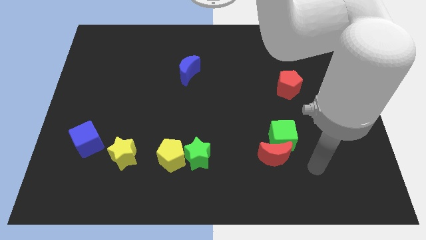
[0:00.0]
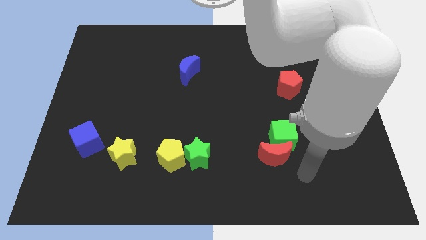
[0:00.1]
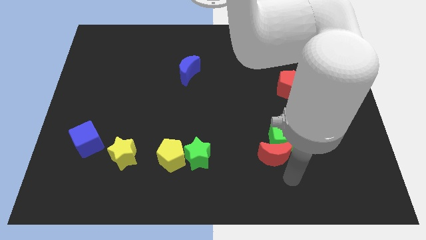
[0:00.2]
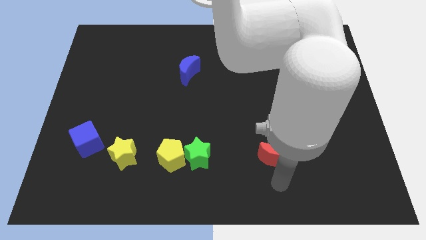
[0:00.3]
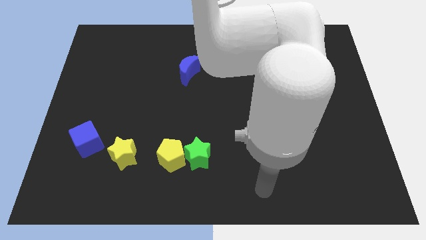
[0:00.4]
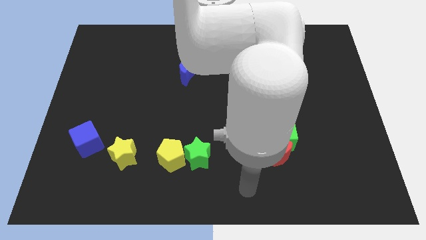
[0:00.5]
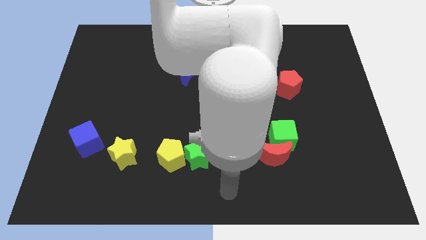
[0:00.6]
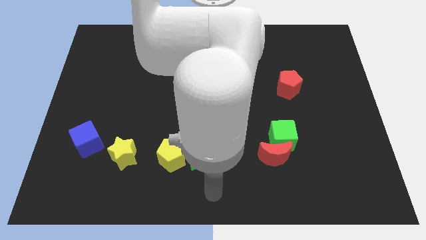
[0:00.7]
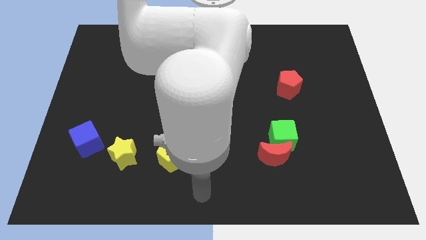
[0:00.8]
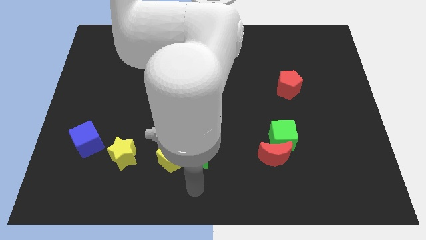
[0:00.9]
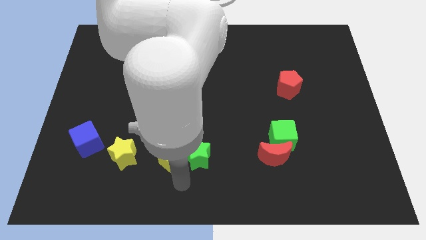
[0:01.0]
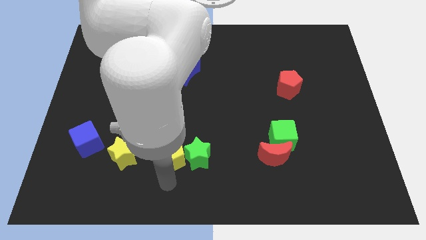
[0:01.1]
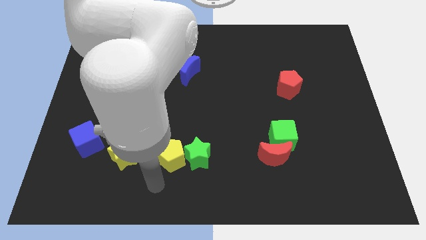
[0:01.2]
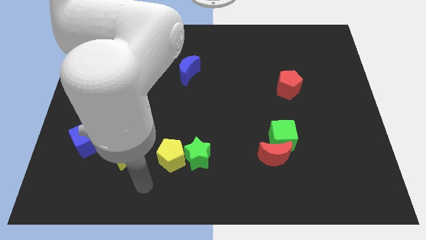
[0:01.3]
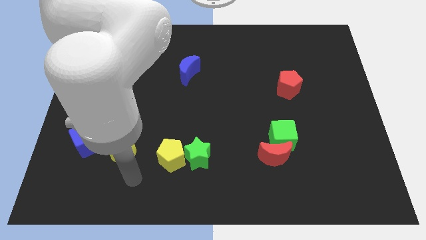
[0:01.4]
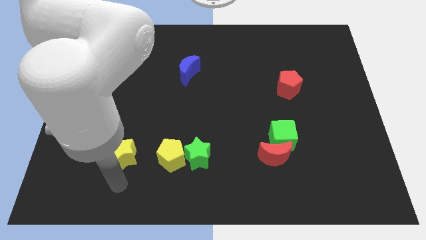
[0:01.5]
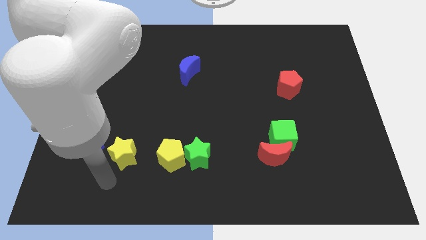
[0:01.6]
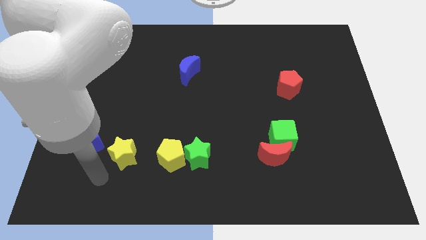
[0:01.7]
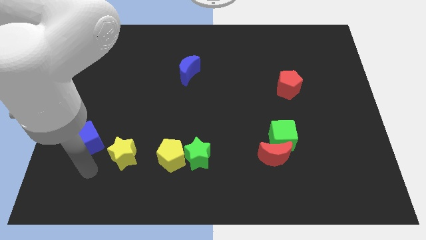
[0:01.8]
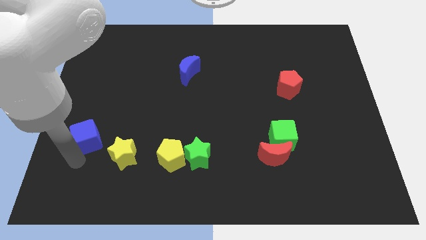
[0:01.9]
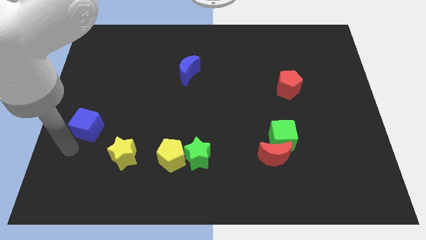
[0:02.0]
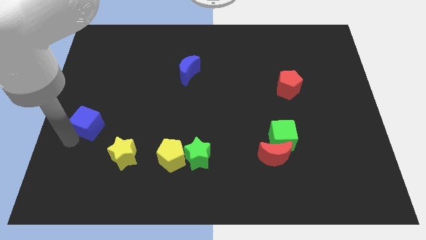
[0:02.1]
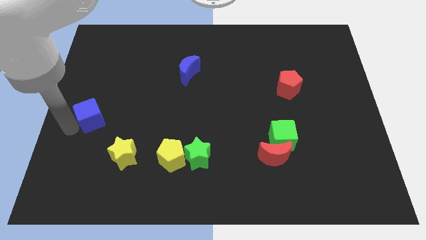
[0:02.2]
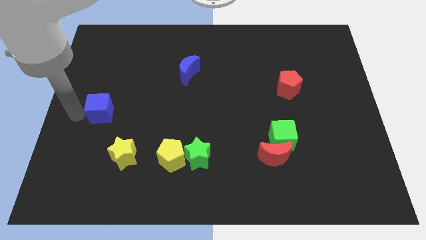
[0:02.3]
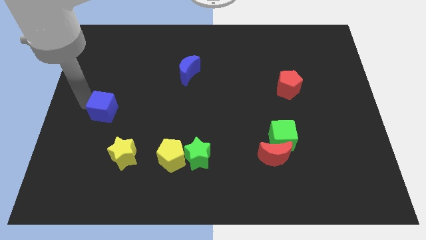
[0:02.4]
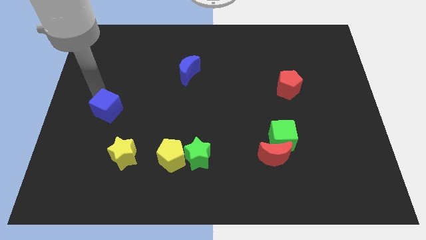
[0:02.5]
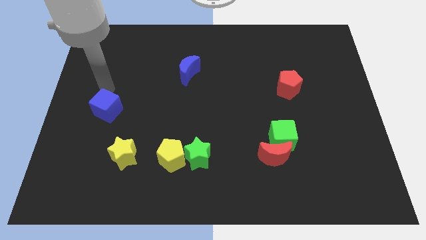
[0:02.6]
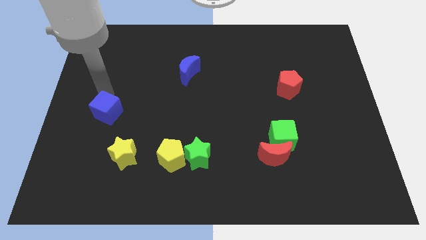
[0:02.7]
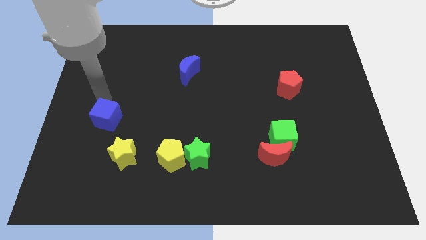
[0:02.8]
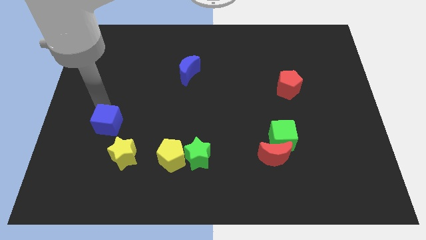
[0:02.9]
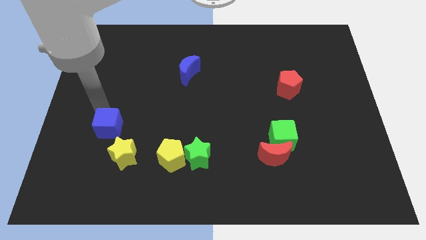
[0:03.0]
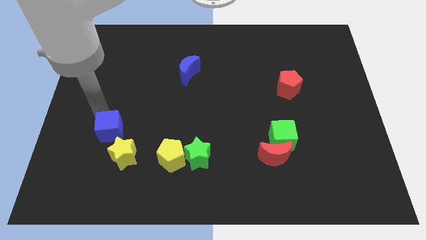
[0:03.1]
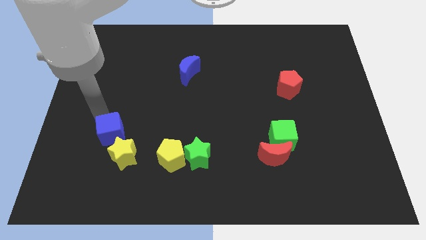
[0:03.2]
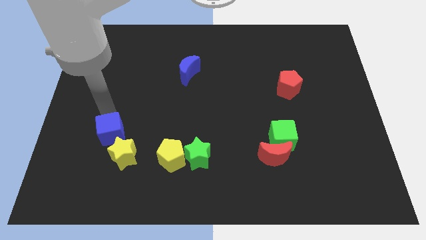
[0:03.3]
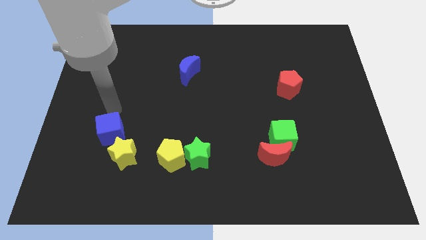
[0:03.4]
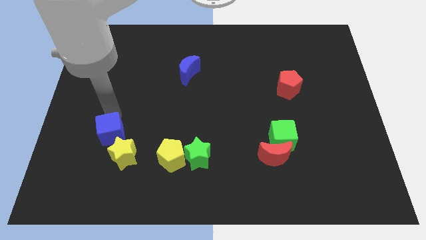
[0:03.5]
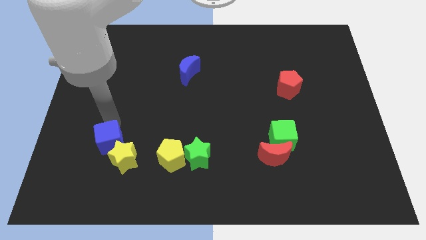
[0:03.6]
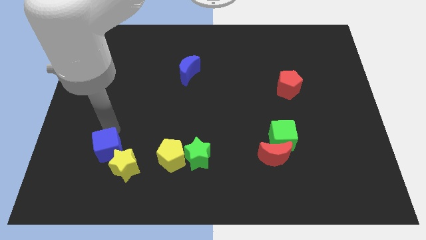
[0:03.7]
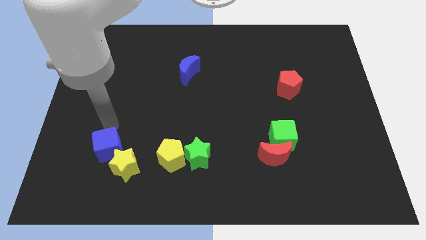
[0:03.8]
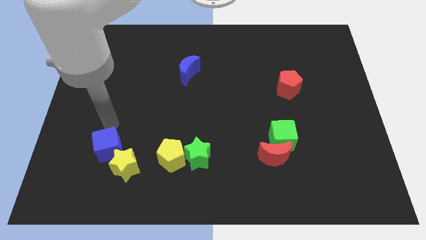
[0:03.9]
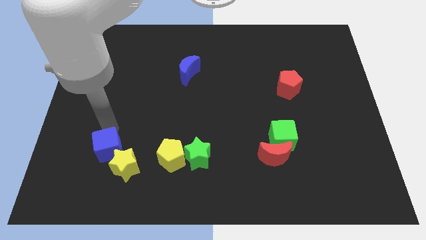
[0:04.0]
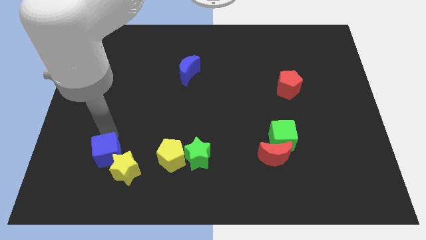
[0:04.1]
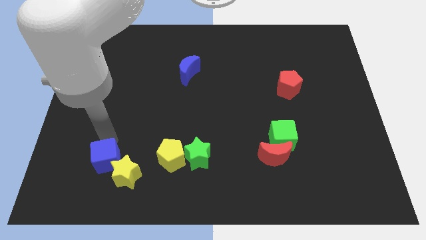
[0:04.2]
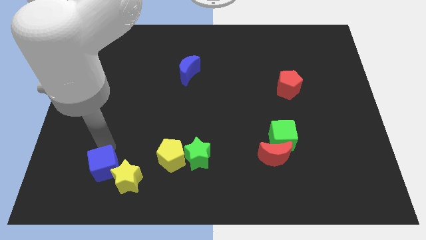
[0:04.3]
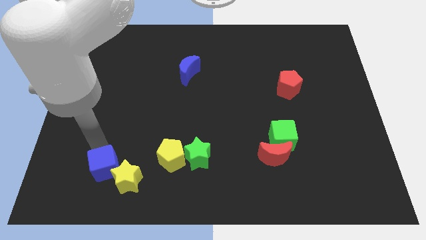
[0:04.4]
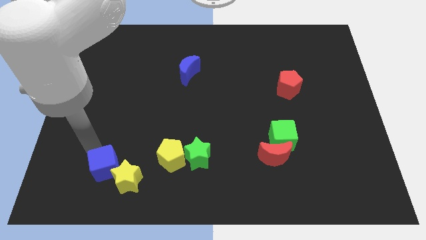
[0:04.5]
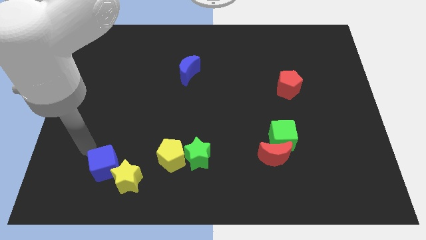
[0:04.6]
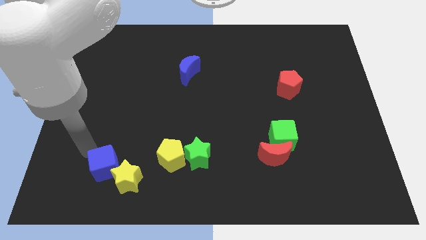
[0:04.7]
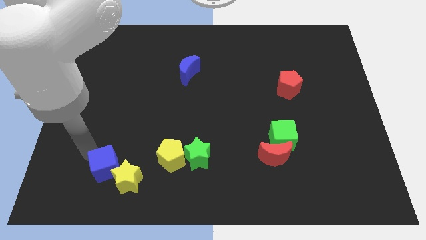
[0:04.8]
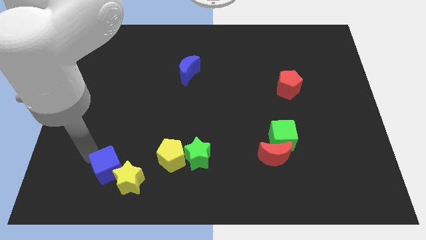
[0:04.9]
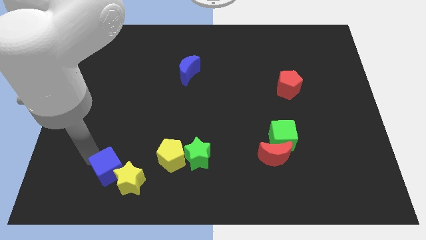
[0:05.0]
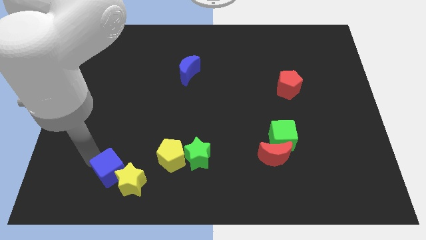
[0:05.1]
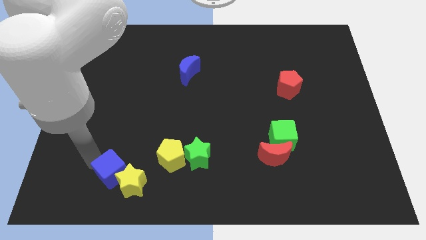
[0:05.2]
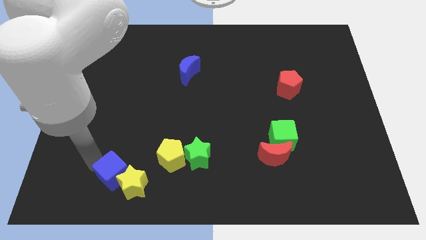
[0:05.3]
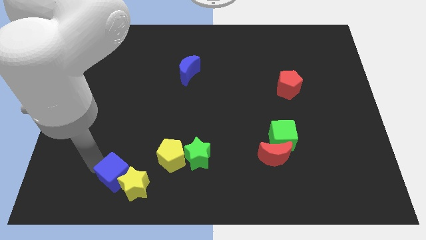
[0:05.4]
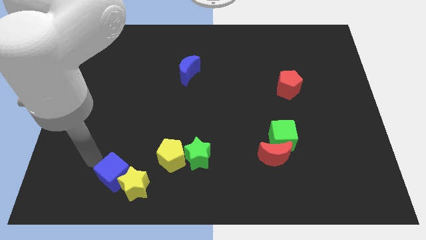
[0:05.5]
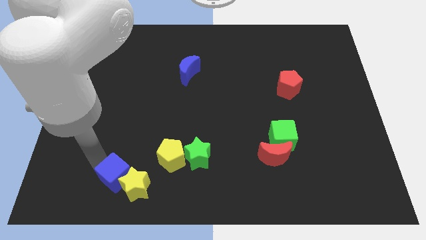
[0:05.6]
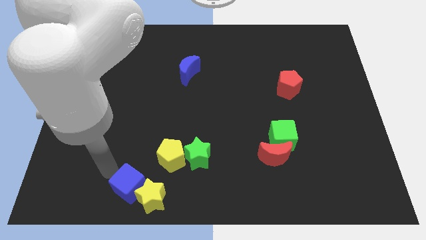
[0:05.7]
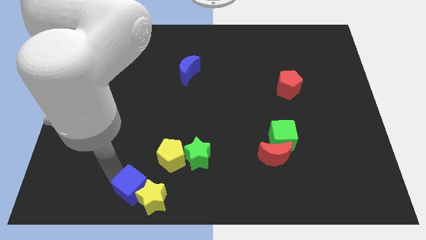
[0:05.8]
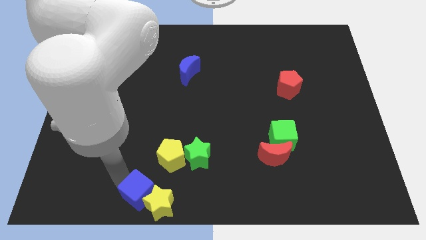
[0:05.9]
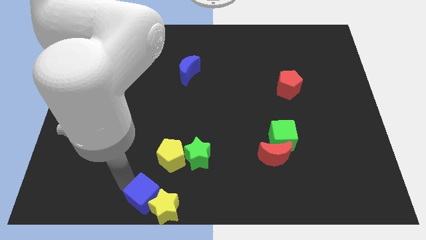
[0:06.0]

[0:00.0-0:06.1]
slide the blue cube to the bottom
